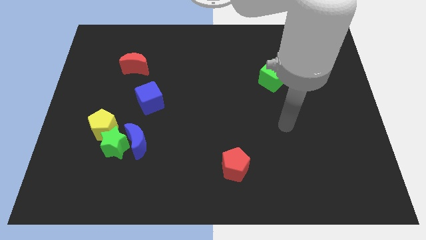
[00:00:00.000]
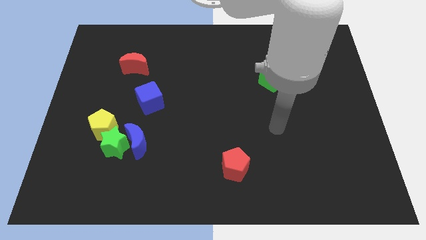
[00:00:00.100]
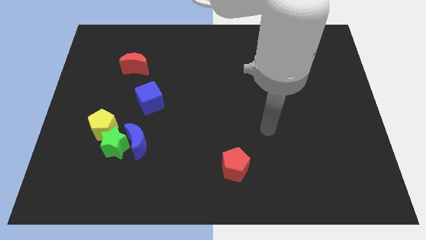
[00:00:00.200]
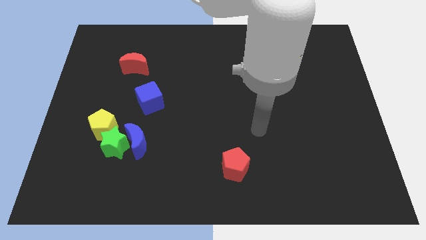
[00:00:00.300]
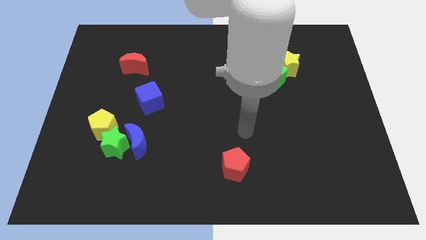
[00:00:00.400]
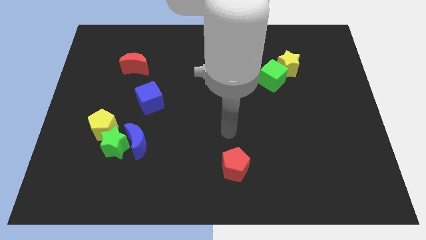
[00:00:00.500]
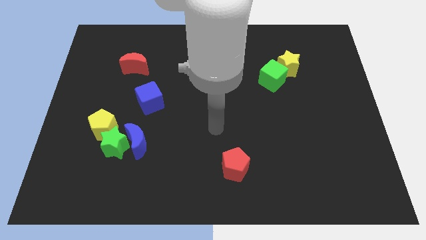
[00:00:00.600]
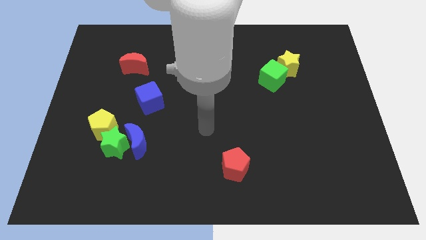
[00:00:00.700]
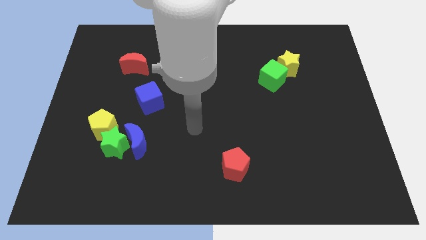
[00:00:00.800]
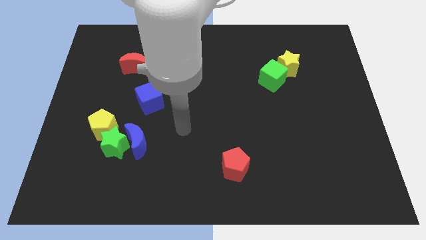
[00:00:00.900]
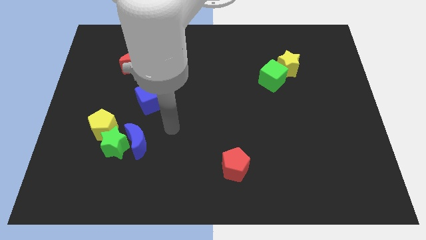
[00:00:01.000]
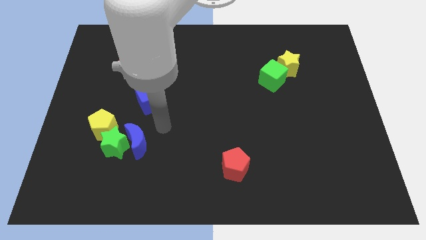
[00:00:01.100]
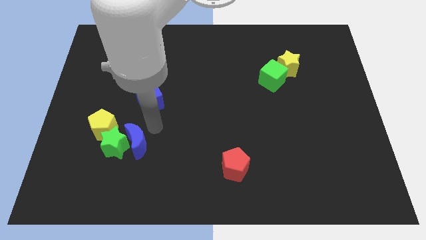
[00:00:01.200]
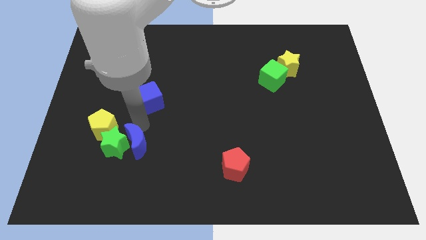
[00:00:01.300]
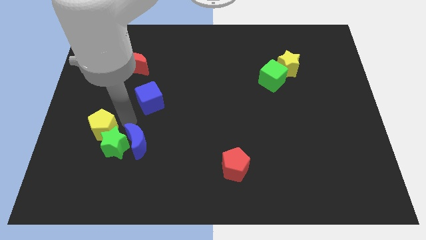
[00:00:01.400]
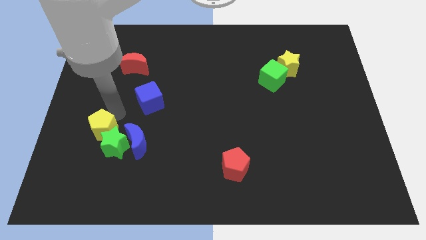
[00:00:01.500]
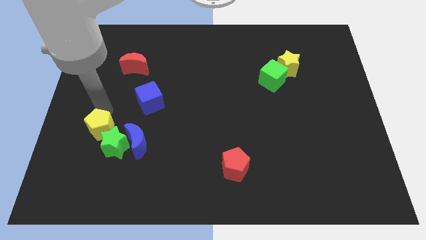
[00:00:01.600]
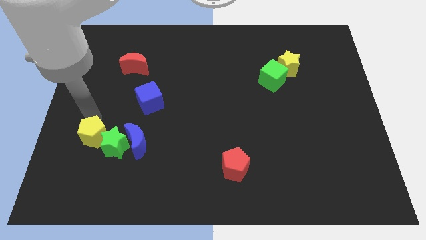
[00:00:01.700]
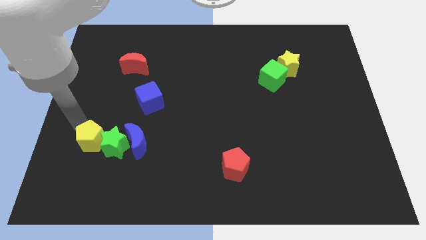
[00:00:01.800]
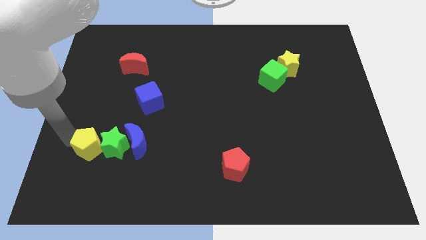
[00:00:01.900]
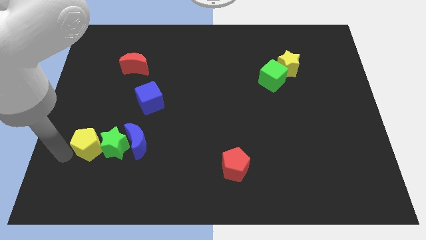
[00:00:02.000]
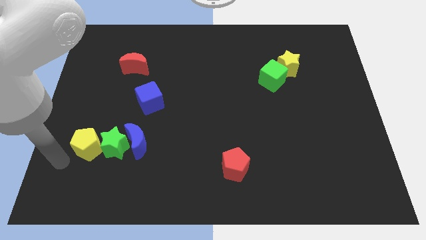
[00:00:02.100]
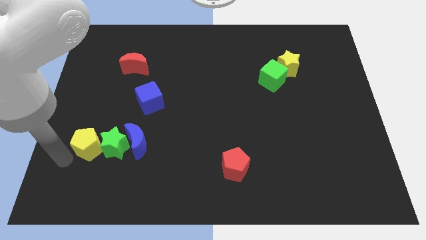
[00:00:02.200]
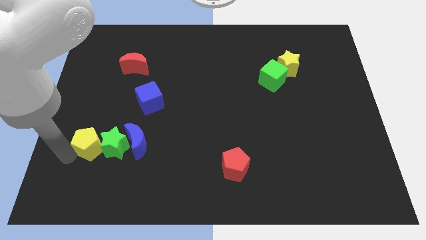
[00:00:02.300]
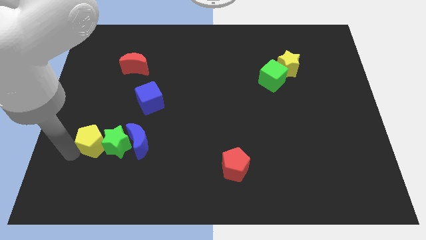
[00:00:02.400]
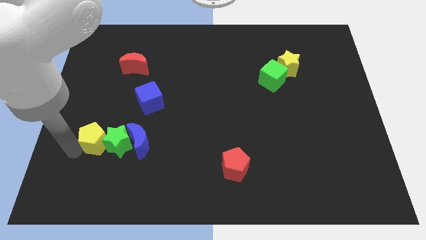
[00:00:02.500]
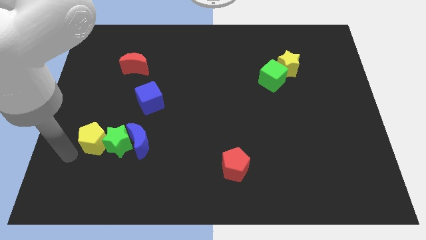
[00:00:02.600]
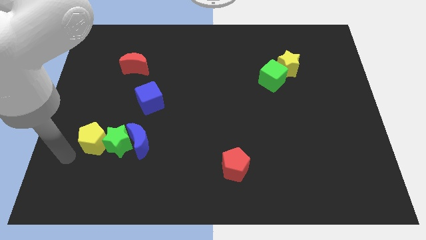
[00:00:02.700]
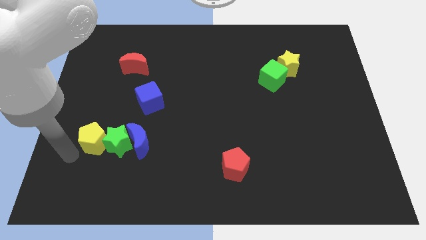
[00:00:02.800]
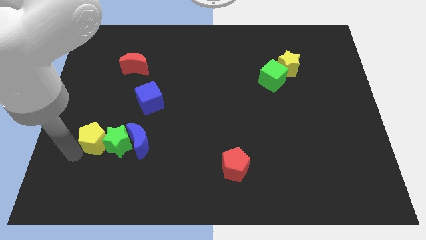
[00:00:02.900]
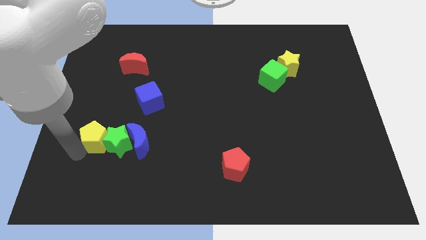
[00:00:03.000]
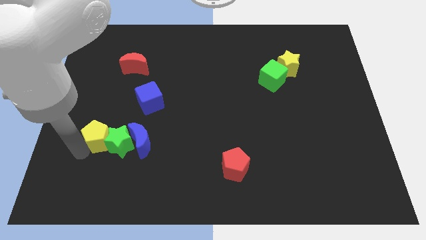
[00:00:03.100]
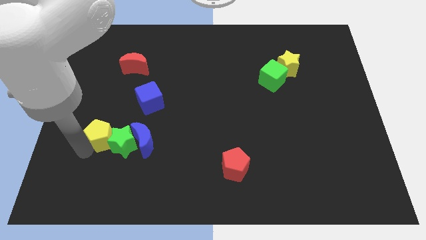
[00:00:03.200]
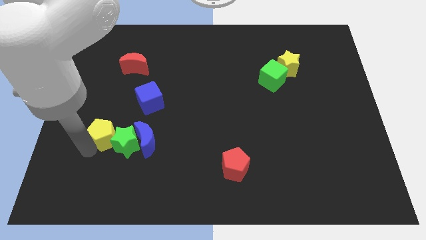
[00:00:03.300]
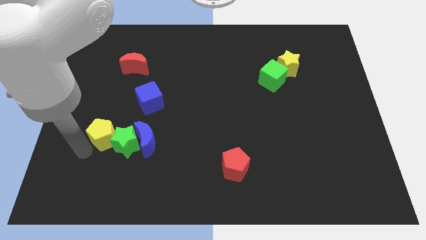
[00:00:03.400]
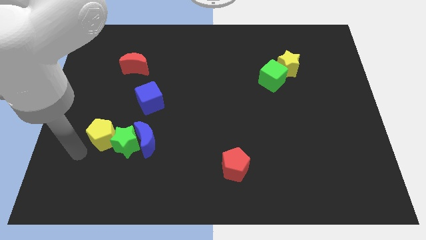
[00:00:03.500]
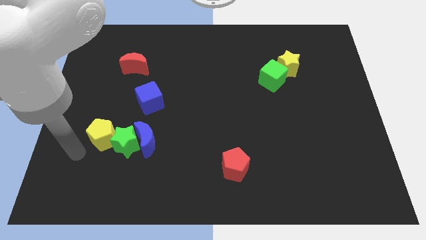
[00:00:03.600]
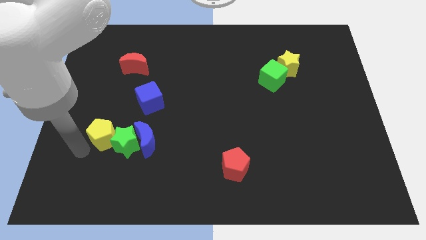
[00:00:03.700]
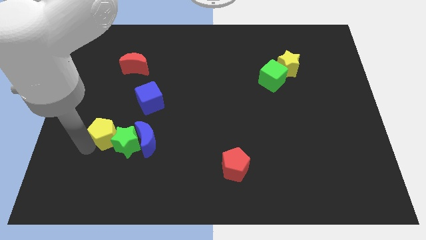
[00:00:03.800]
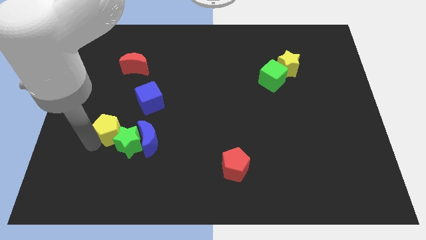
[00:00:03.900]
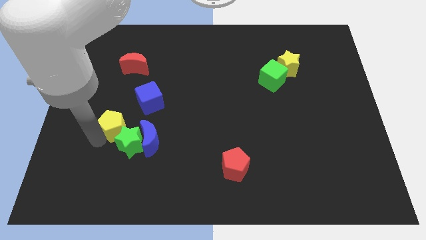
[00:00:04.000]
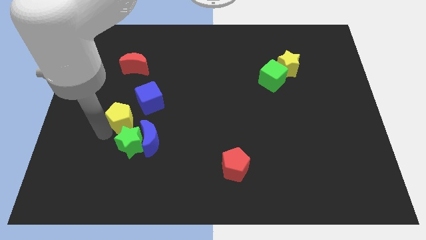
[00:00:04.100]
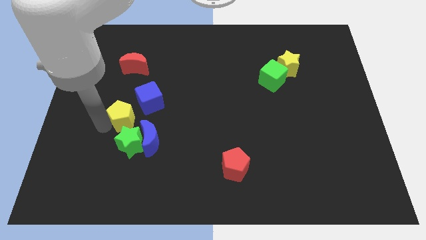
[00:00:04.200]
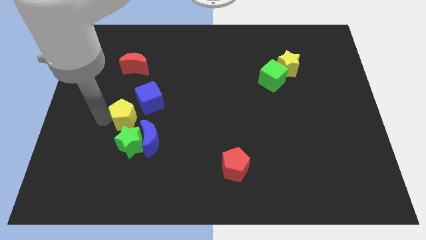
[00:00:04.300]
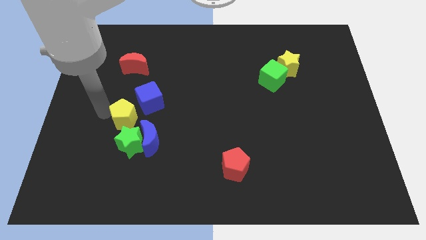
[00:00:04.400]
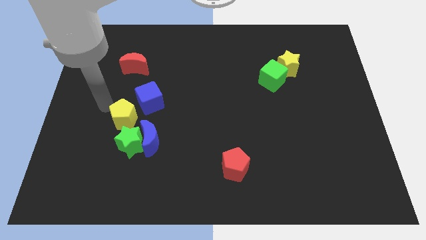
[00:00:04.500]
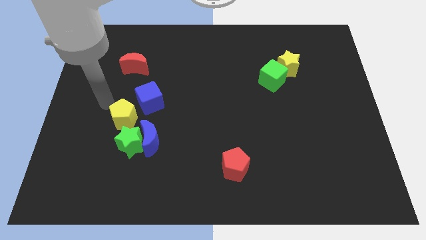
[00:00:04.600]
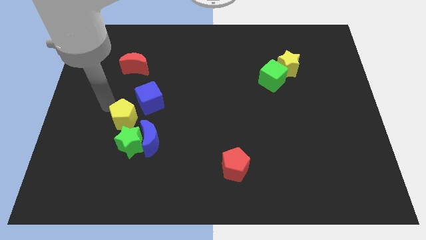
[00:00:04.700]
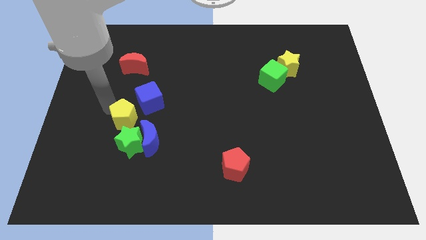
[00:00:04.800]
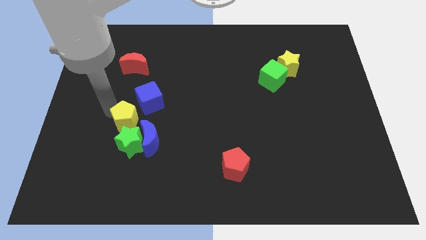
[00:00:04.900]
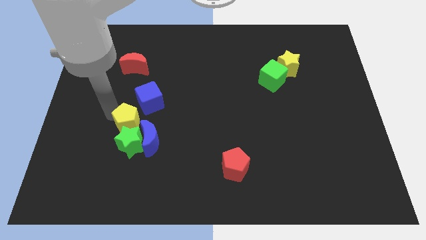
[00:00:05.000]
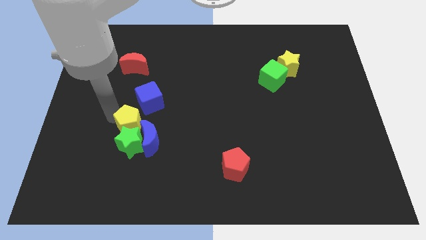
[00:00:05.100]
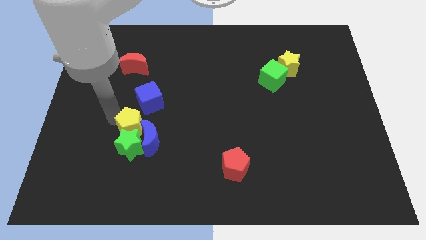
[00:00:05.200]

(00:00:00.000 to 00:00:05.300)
slide the yellow pentagon close to the blue moon

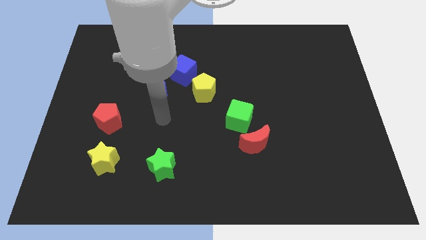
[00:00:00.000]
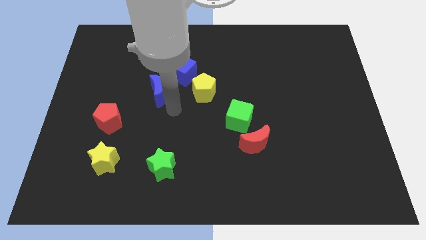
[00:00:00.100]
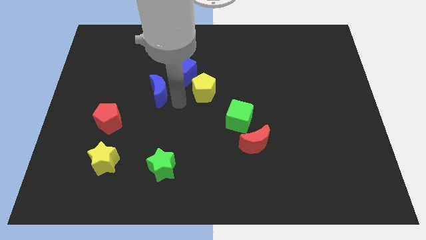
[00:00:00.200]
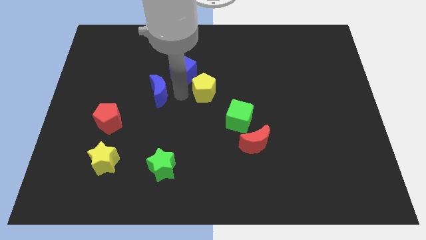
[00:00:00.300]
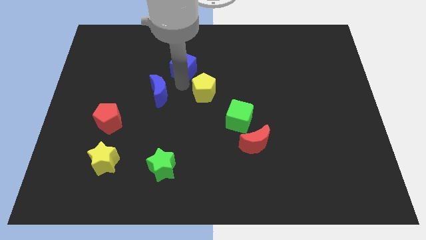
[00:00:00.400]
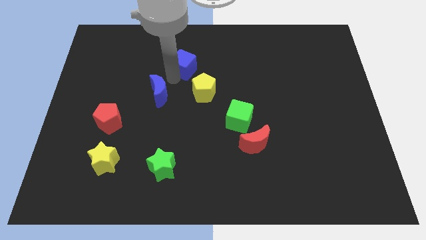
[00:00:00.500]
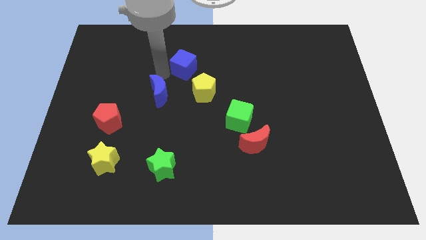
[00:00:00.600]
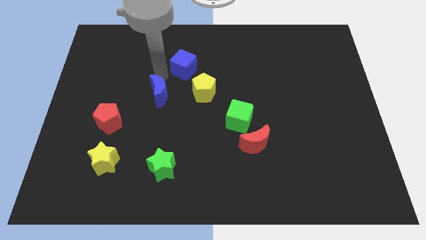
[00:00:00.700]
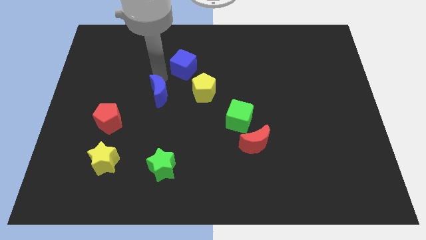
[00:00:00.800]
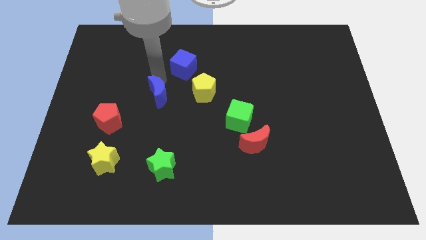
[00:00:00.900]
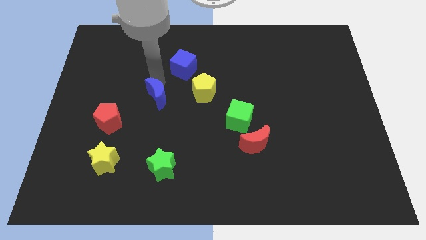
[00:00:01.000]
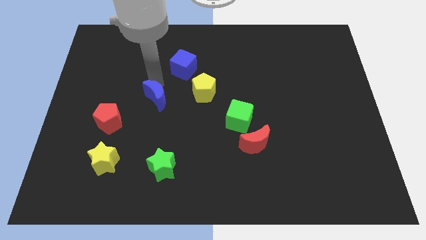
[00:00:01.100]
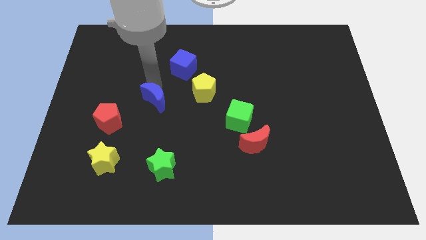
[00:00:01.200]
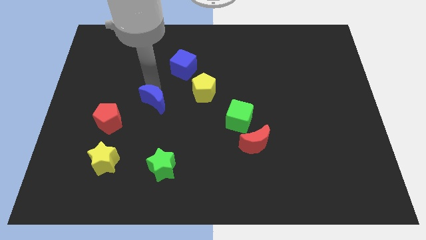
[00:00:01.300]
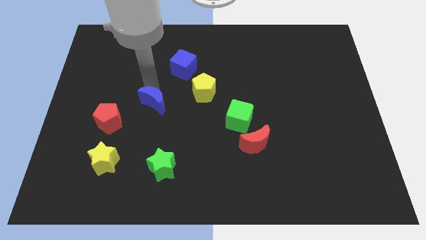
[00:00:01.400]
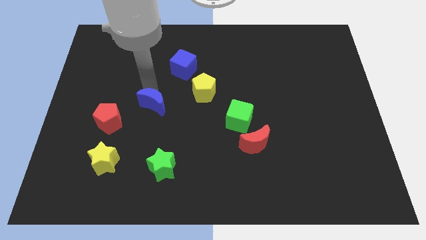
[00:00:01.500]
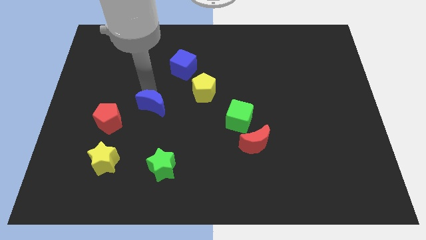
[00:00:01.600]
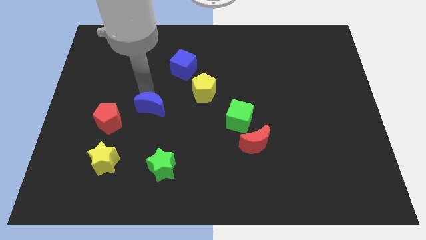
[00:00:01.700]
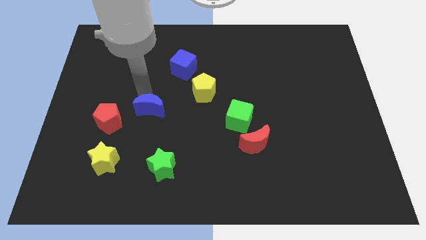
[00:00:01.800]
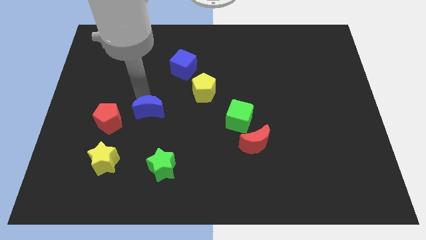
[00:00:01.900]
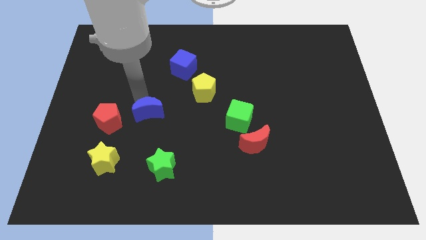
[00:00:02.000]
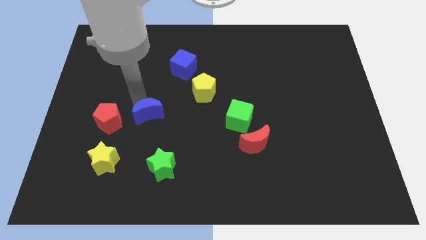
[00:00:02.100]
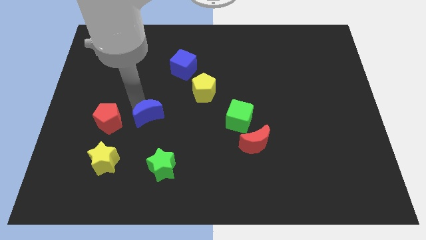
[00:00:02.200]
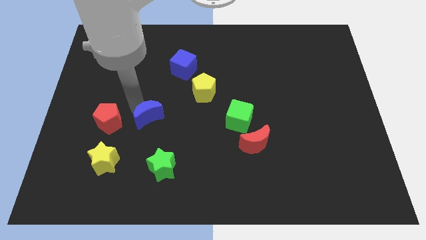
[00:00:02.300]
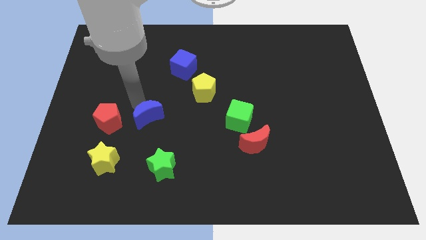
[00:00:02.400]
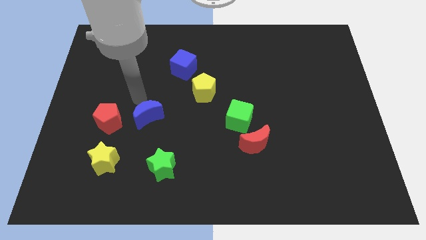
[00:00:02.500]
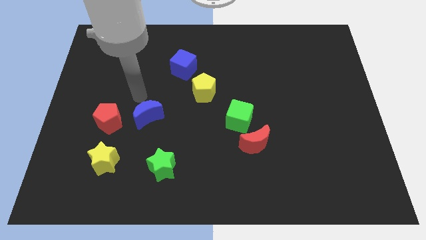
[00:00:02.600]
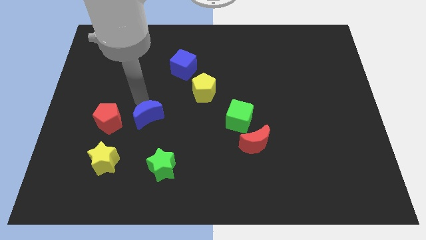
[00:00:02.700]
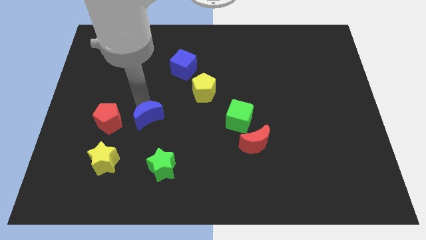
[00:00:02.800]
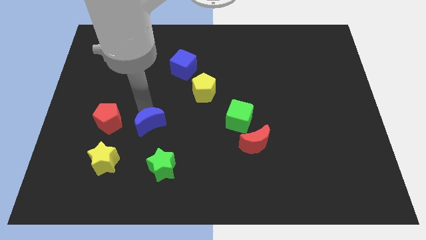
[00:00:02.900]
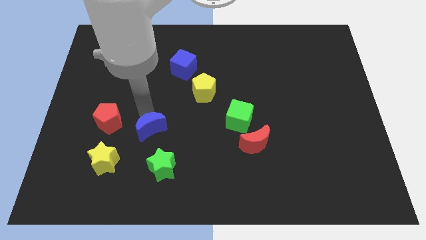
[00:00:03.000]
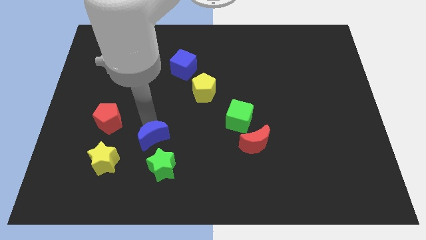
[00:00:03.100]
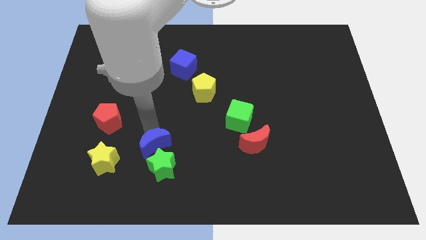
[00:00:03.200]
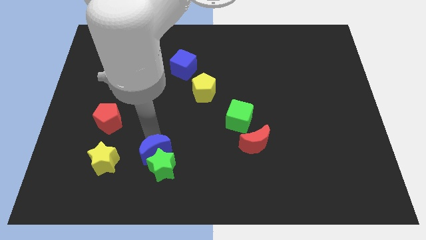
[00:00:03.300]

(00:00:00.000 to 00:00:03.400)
move the blue moon next to the green star
